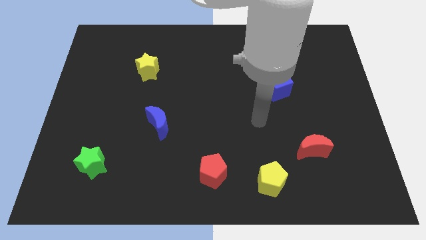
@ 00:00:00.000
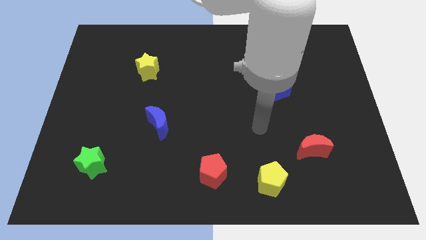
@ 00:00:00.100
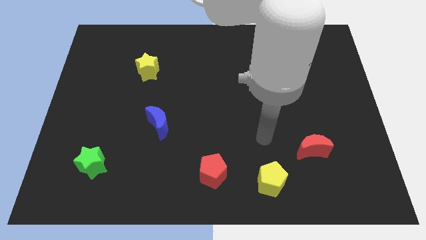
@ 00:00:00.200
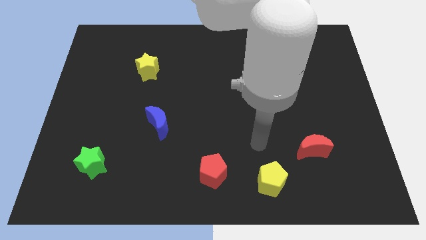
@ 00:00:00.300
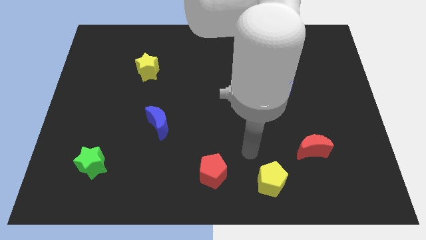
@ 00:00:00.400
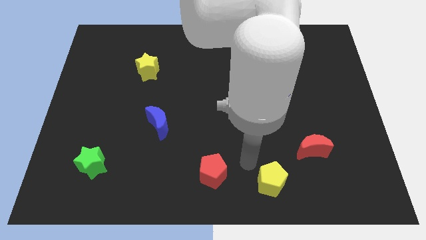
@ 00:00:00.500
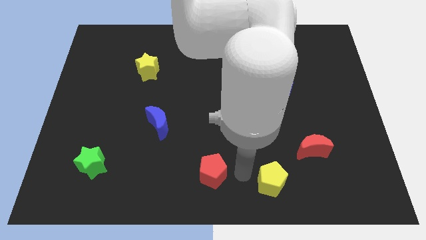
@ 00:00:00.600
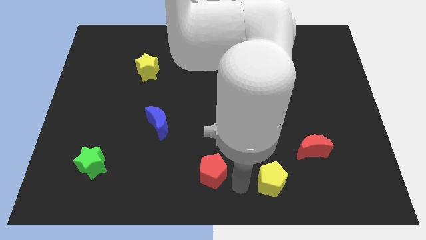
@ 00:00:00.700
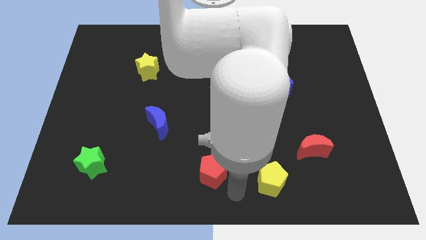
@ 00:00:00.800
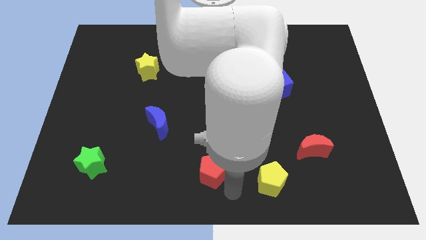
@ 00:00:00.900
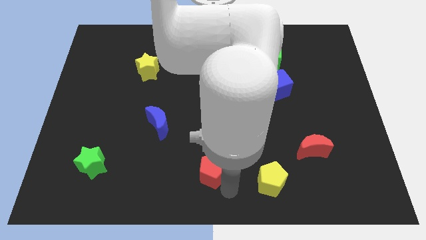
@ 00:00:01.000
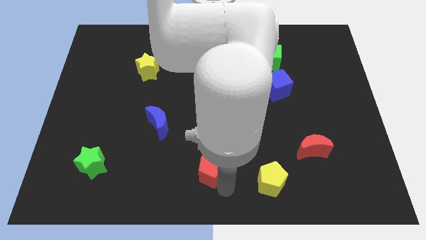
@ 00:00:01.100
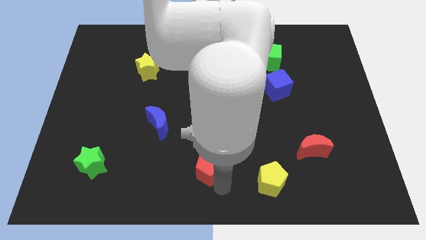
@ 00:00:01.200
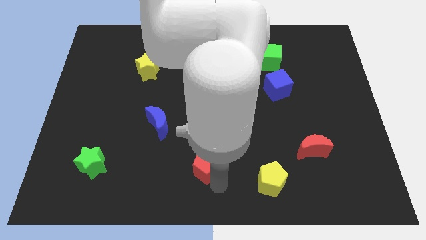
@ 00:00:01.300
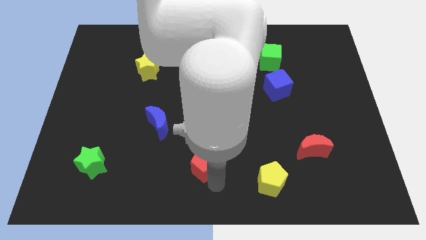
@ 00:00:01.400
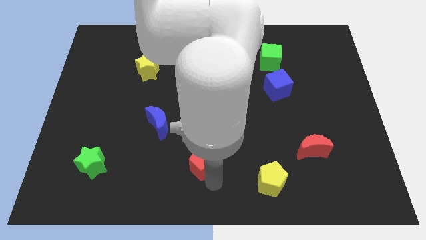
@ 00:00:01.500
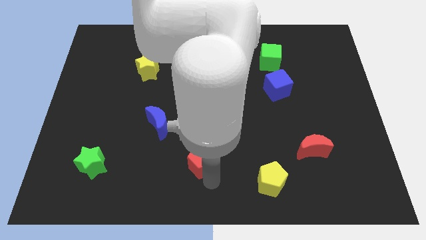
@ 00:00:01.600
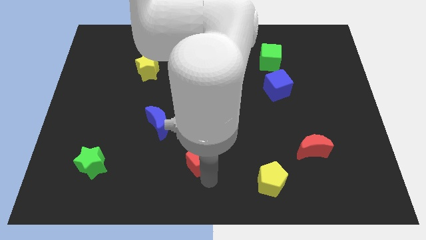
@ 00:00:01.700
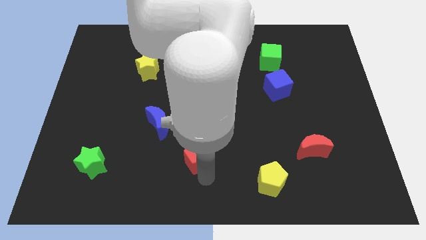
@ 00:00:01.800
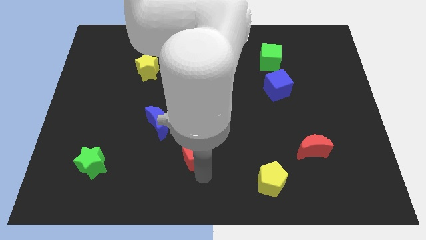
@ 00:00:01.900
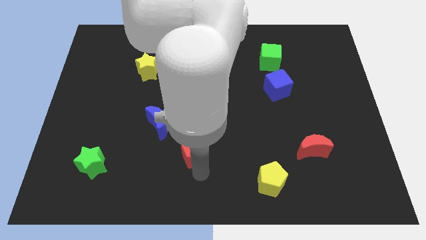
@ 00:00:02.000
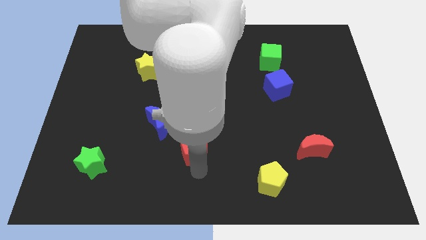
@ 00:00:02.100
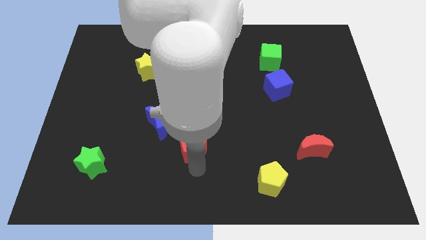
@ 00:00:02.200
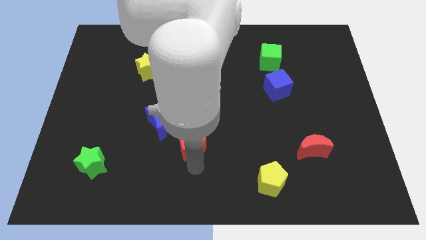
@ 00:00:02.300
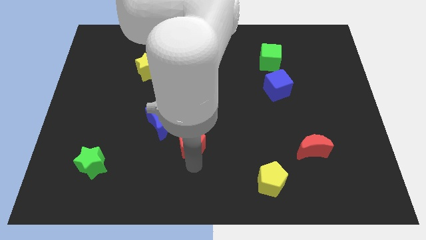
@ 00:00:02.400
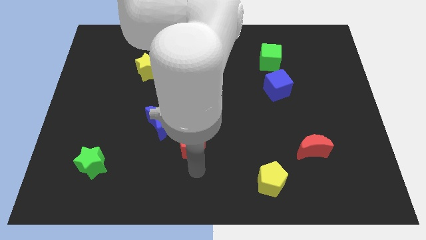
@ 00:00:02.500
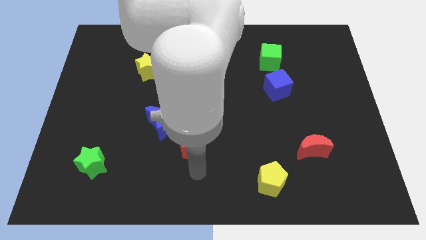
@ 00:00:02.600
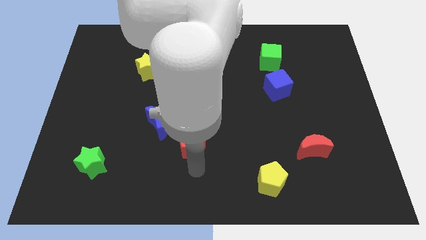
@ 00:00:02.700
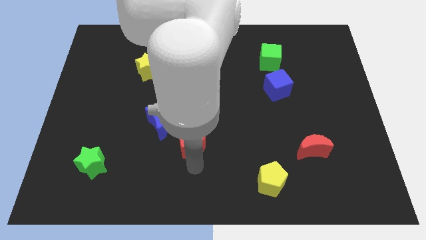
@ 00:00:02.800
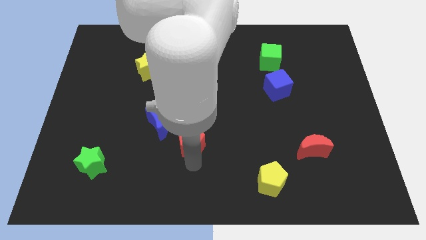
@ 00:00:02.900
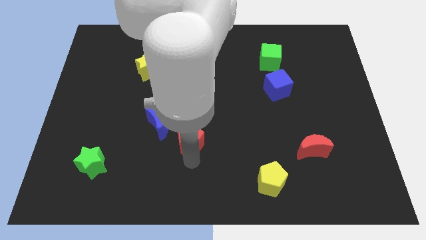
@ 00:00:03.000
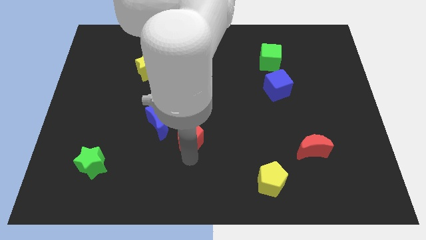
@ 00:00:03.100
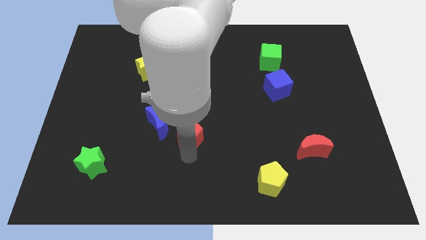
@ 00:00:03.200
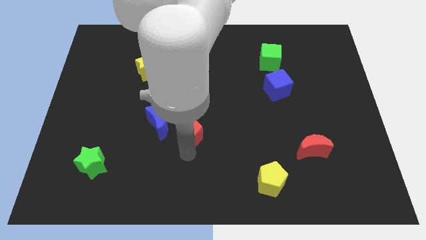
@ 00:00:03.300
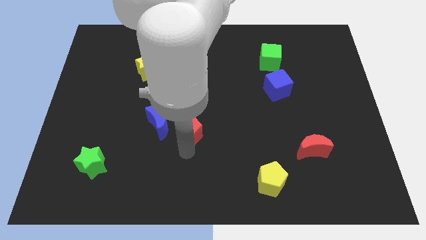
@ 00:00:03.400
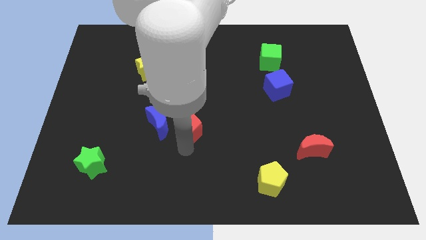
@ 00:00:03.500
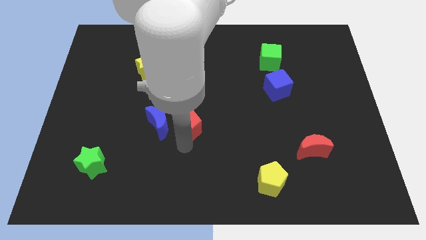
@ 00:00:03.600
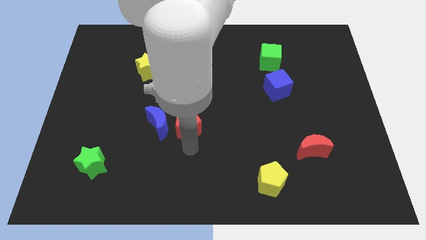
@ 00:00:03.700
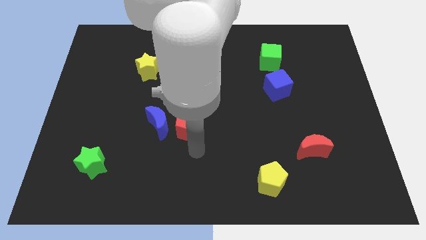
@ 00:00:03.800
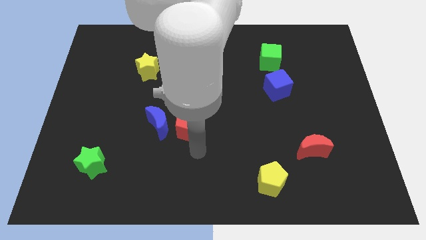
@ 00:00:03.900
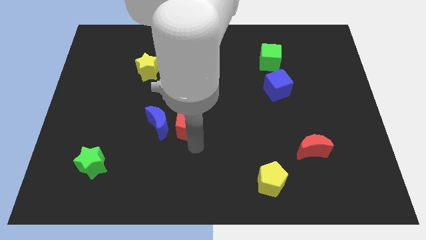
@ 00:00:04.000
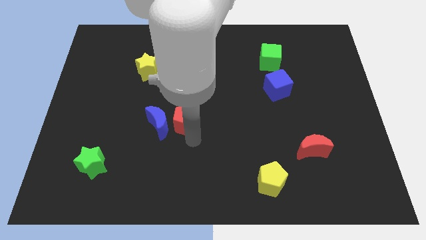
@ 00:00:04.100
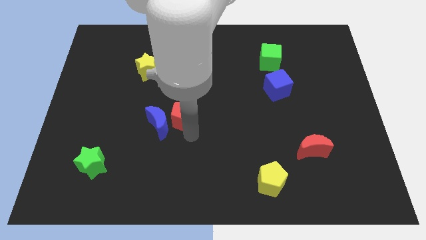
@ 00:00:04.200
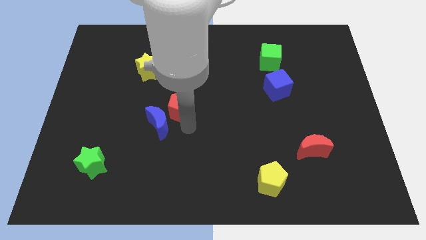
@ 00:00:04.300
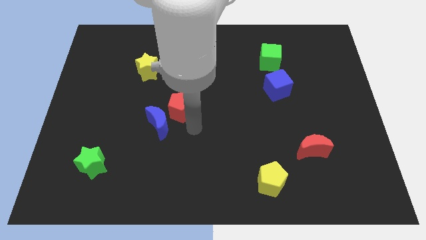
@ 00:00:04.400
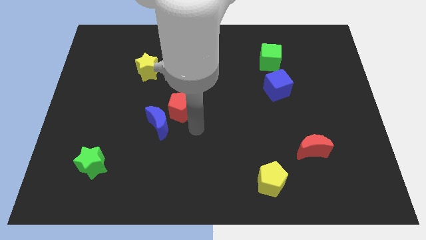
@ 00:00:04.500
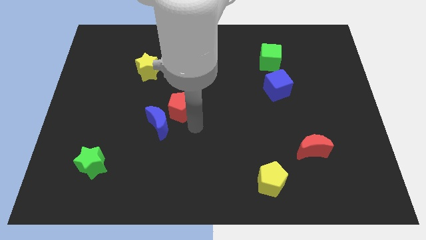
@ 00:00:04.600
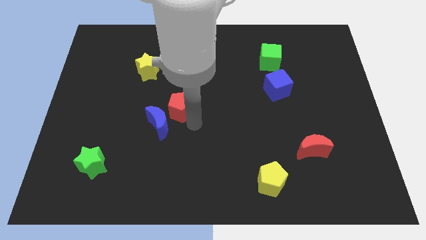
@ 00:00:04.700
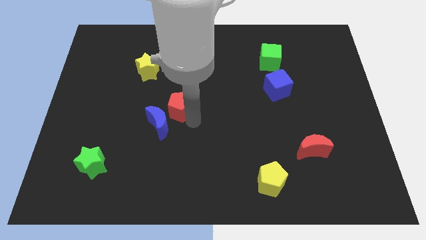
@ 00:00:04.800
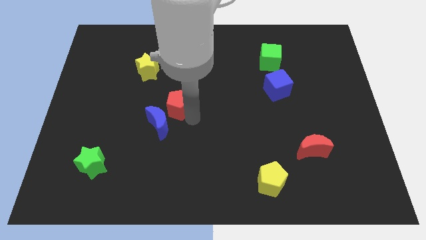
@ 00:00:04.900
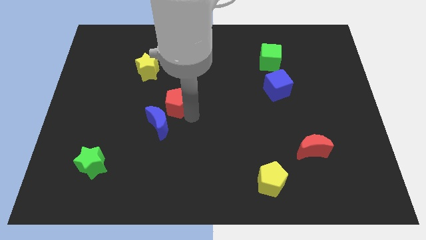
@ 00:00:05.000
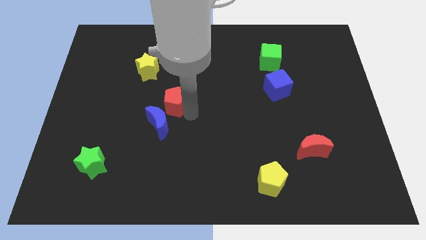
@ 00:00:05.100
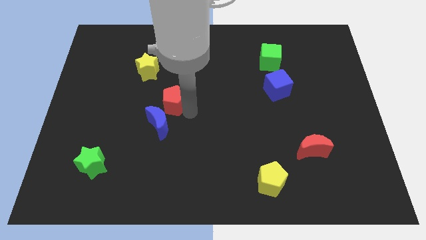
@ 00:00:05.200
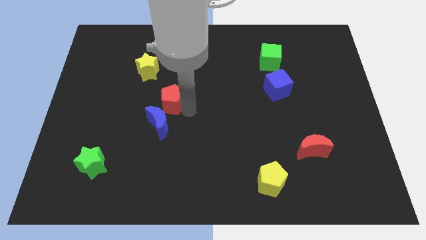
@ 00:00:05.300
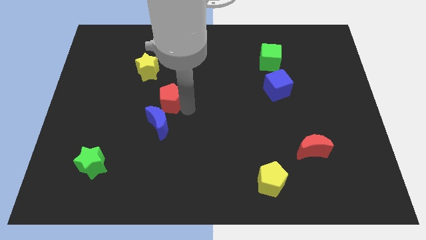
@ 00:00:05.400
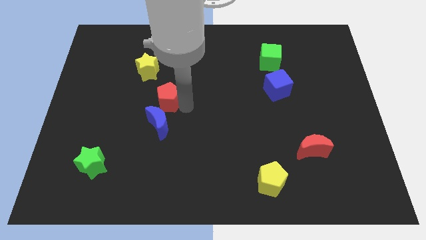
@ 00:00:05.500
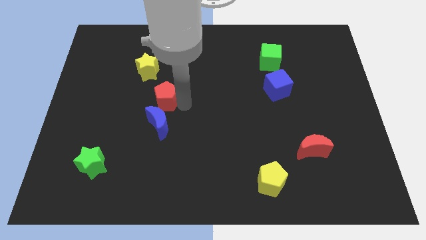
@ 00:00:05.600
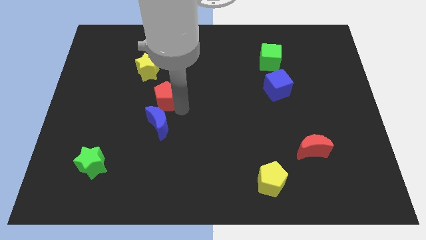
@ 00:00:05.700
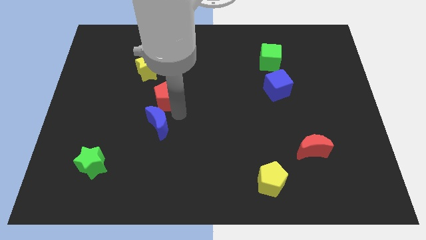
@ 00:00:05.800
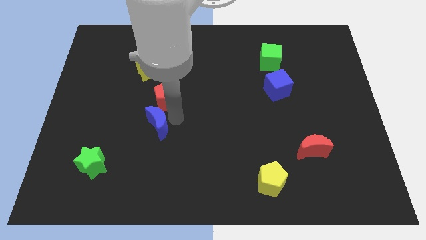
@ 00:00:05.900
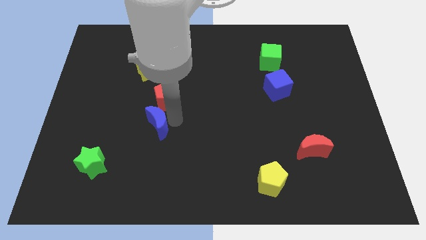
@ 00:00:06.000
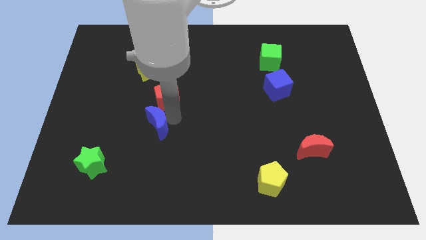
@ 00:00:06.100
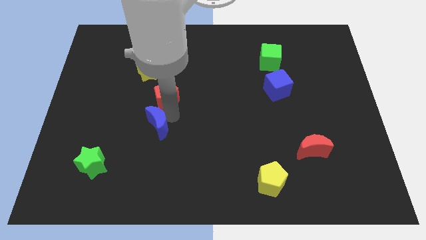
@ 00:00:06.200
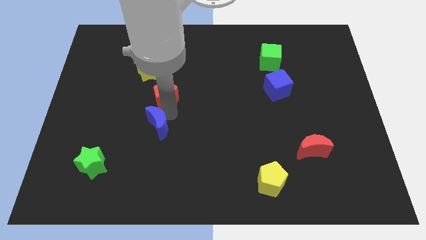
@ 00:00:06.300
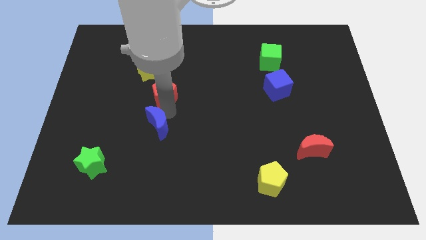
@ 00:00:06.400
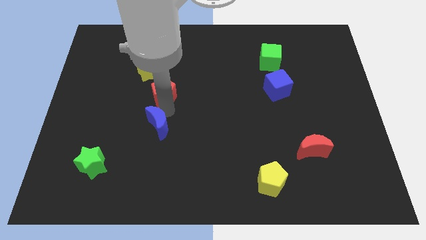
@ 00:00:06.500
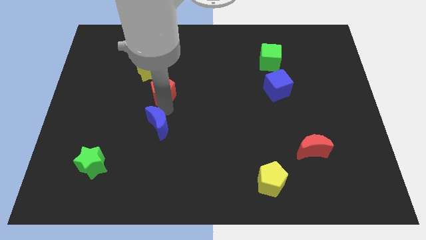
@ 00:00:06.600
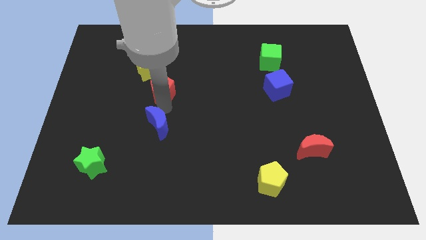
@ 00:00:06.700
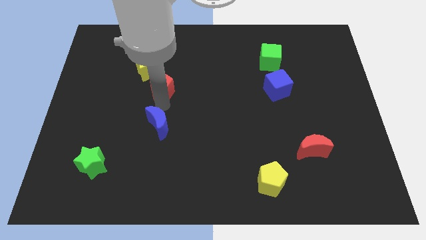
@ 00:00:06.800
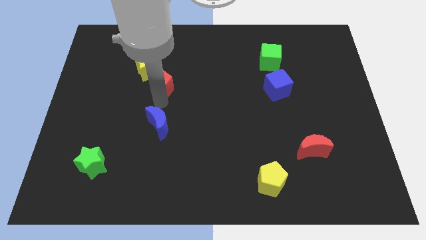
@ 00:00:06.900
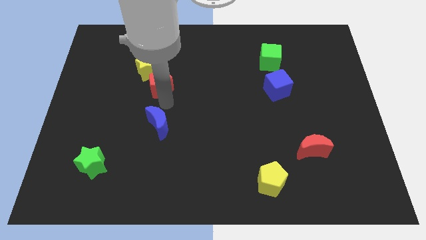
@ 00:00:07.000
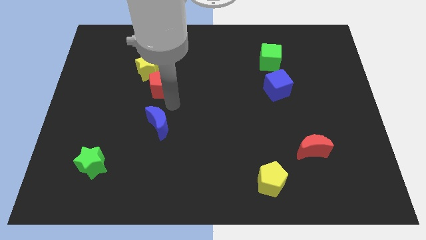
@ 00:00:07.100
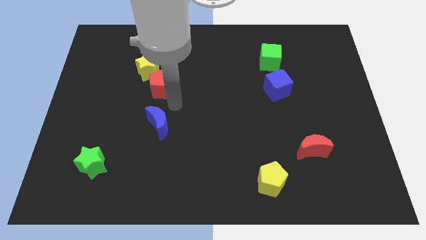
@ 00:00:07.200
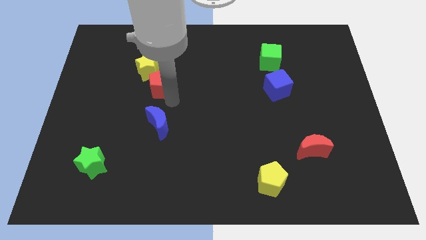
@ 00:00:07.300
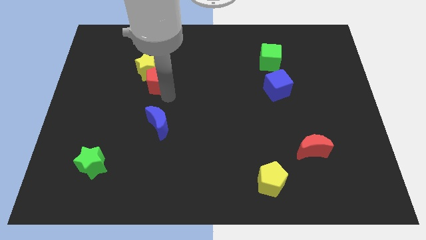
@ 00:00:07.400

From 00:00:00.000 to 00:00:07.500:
push the red pentagon close to the yellow star
